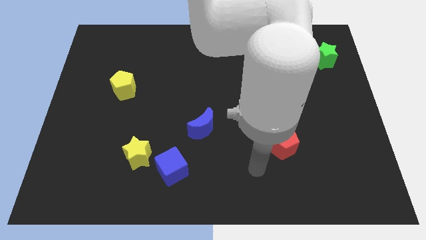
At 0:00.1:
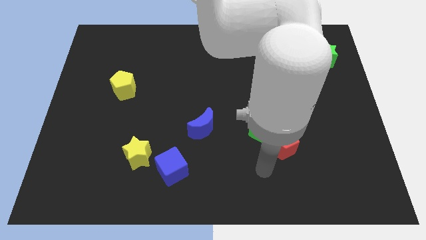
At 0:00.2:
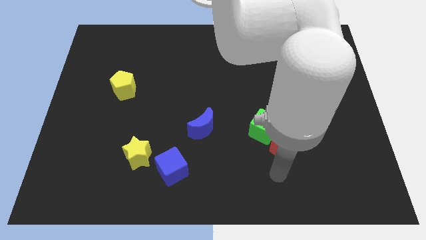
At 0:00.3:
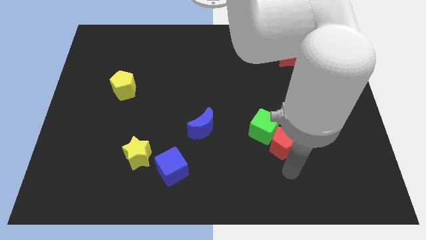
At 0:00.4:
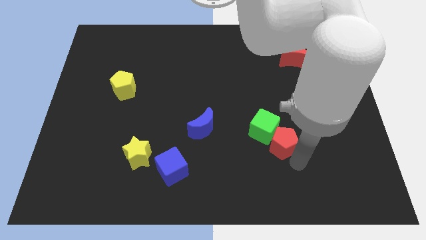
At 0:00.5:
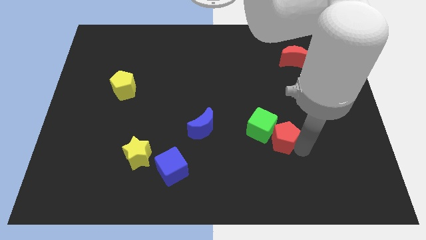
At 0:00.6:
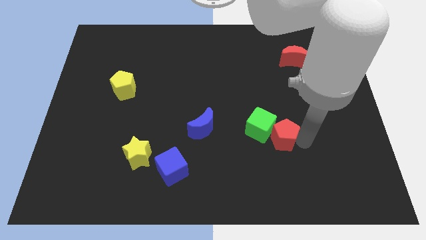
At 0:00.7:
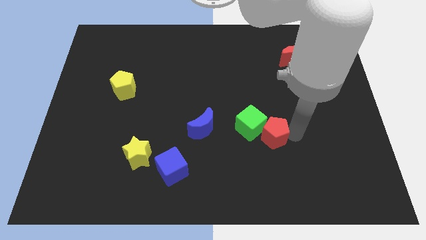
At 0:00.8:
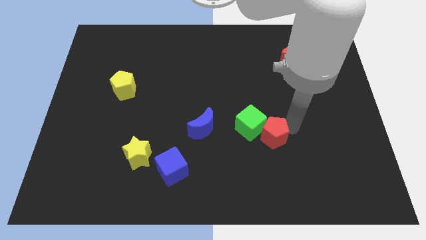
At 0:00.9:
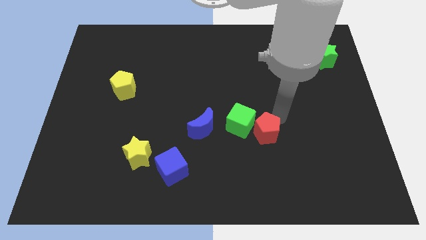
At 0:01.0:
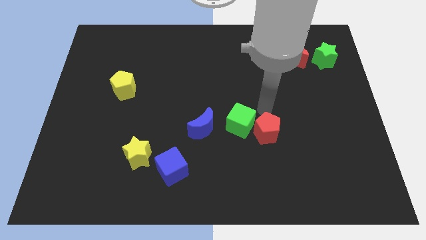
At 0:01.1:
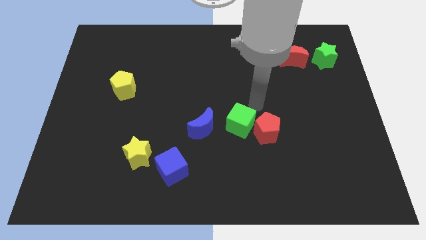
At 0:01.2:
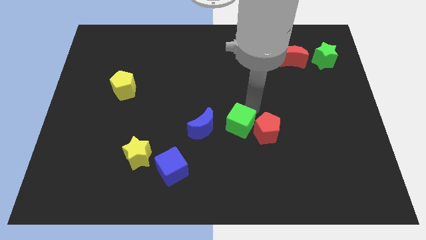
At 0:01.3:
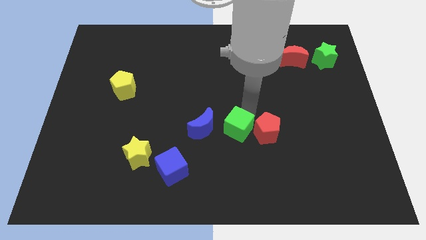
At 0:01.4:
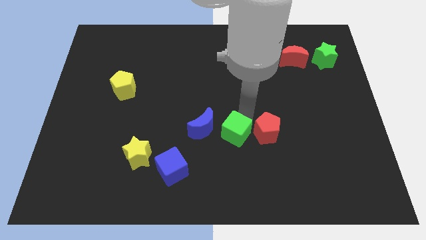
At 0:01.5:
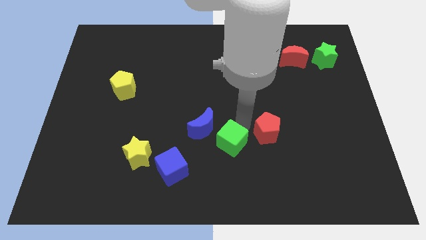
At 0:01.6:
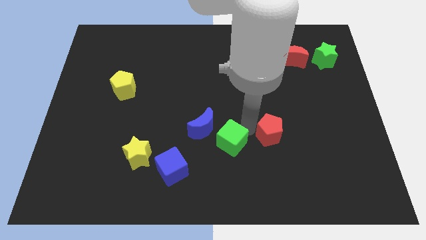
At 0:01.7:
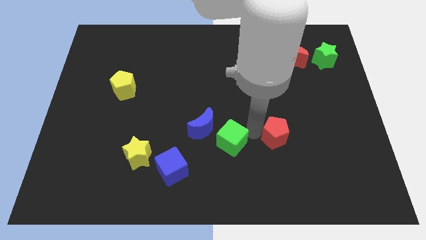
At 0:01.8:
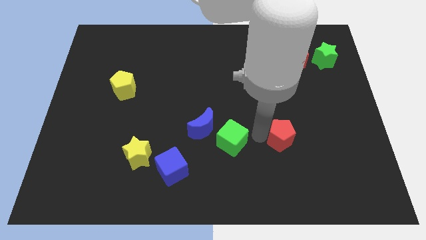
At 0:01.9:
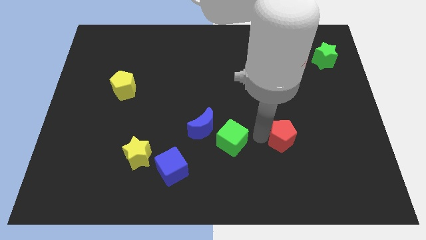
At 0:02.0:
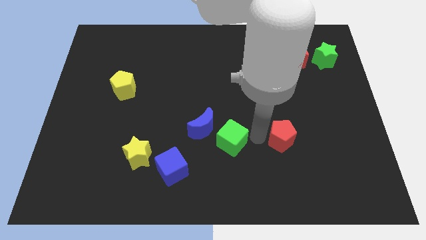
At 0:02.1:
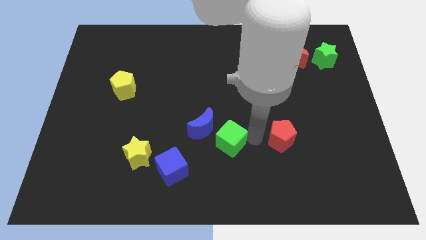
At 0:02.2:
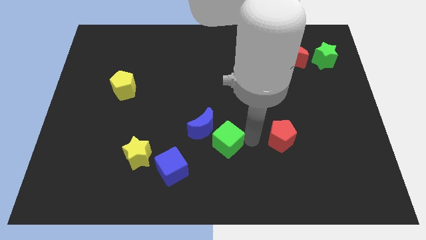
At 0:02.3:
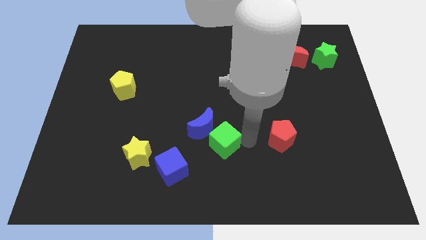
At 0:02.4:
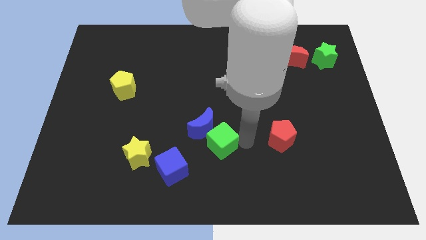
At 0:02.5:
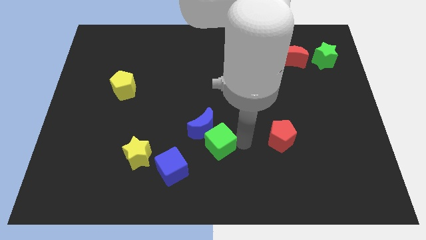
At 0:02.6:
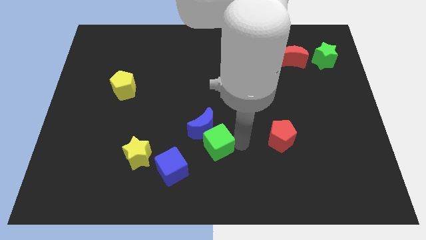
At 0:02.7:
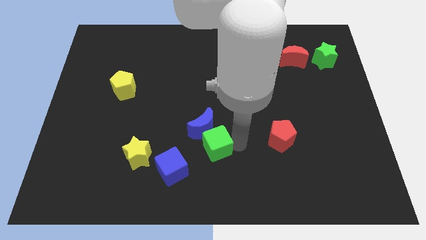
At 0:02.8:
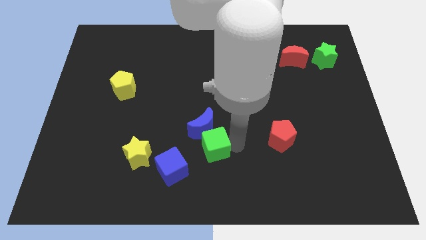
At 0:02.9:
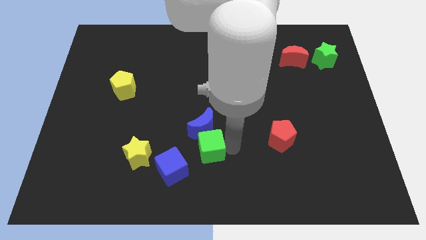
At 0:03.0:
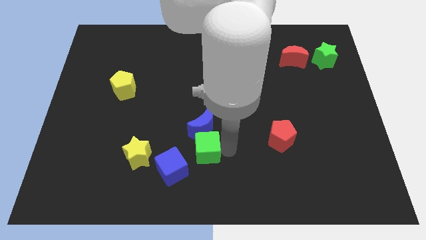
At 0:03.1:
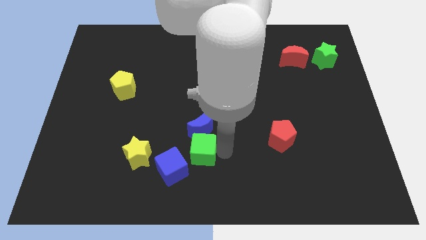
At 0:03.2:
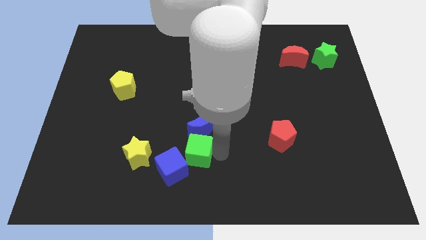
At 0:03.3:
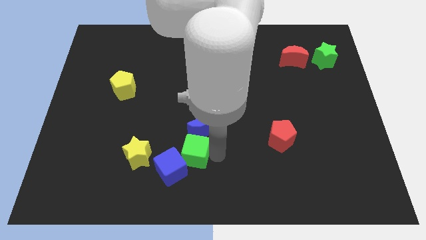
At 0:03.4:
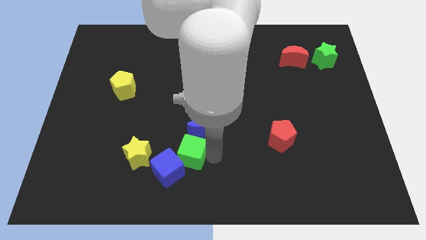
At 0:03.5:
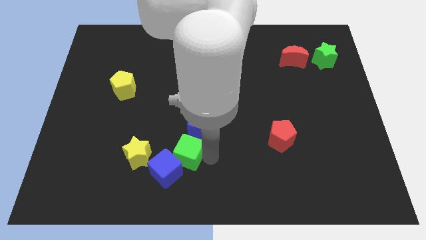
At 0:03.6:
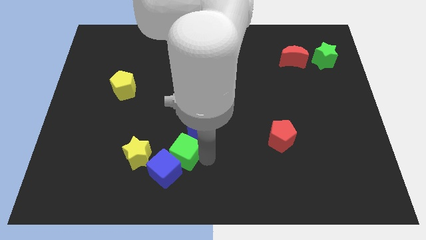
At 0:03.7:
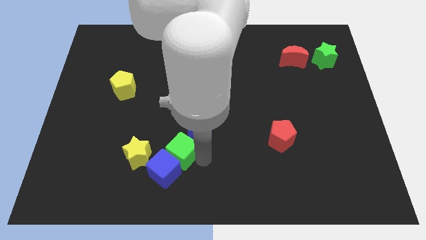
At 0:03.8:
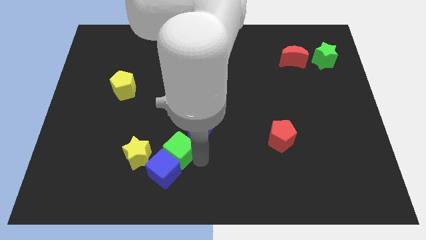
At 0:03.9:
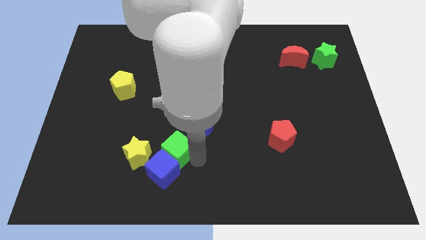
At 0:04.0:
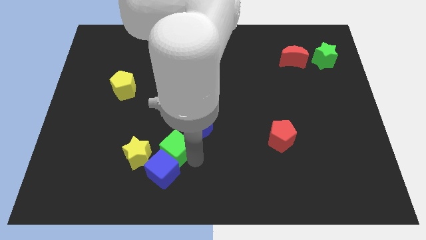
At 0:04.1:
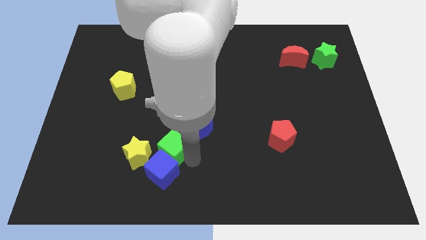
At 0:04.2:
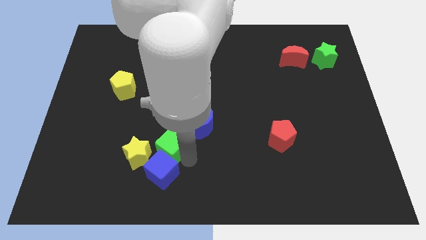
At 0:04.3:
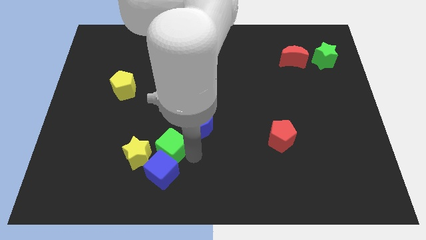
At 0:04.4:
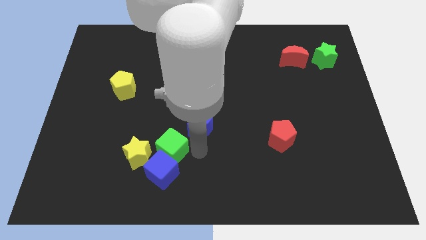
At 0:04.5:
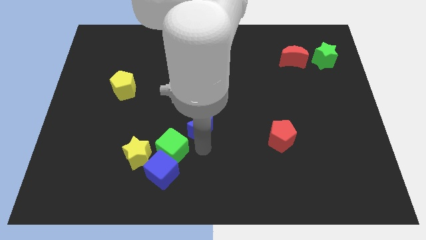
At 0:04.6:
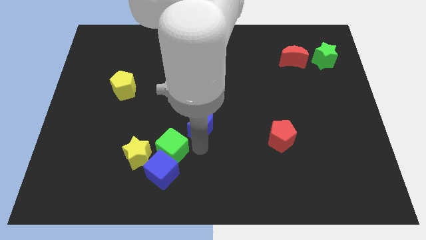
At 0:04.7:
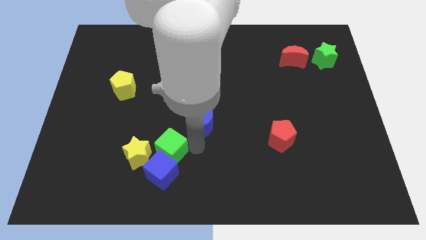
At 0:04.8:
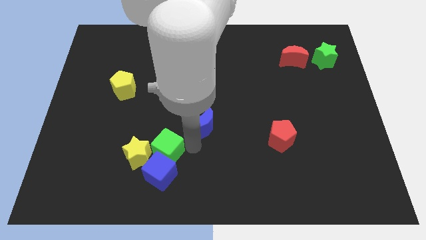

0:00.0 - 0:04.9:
slide the green cube to the top left of the blue cube

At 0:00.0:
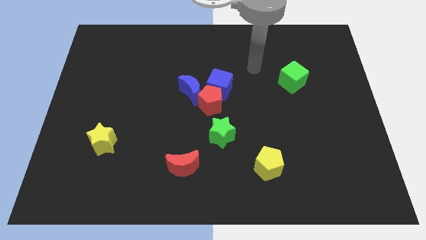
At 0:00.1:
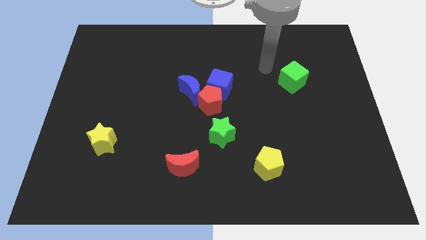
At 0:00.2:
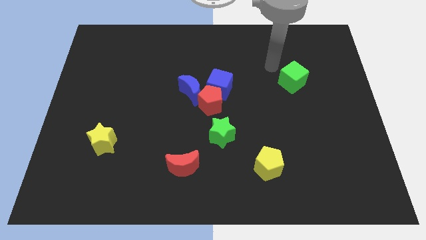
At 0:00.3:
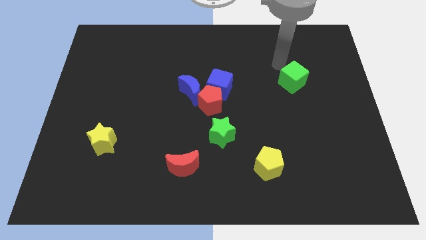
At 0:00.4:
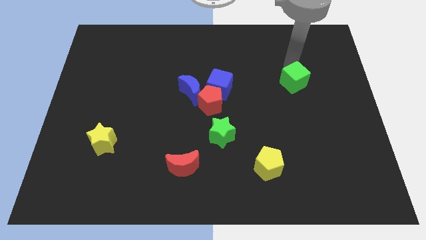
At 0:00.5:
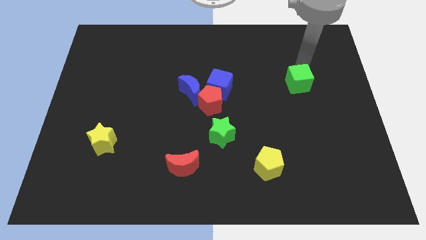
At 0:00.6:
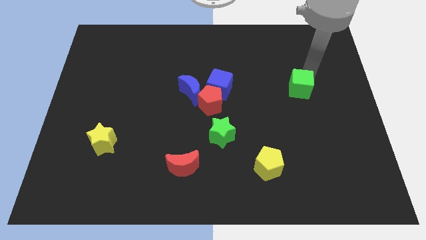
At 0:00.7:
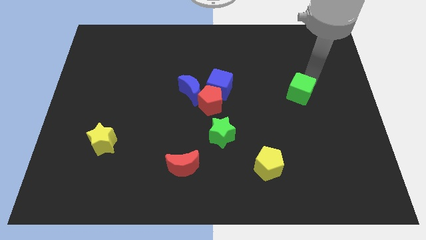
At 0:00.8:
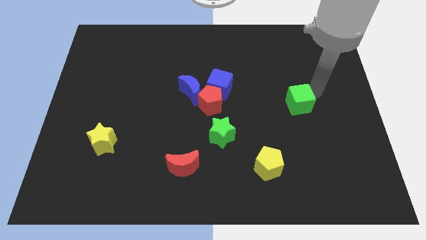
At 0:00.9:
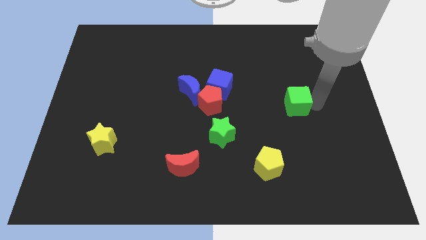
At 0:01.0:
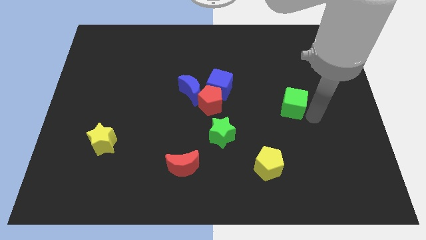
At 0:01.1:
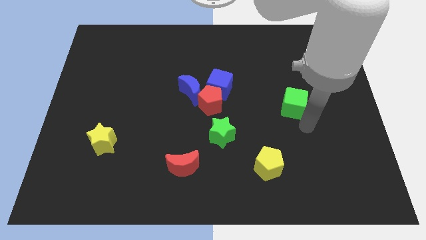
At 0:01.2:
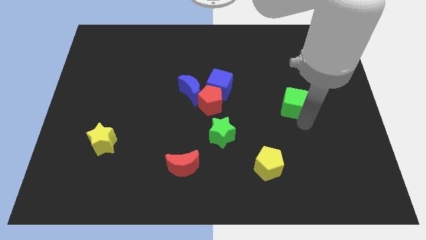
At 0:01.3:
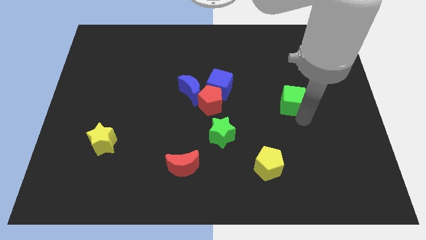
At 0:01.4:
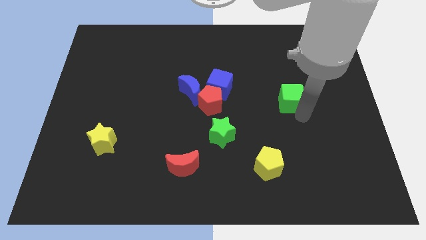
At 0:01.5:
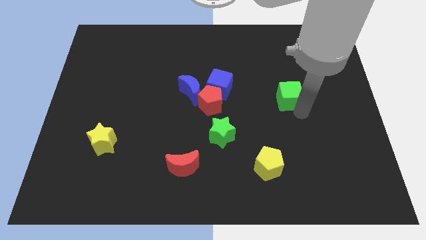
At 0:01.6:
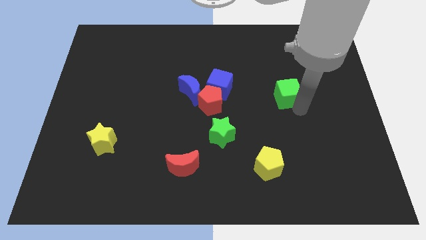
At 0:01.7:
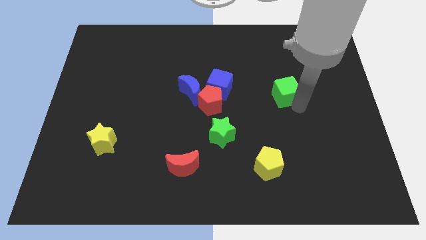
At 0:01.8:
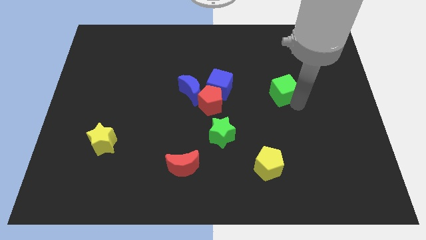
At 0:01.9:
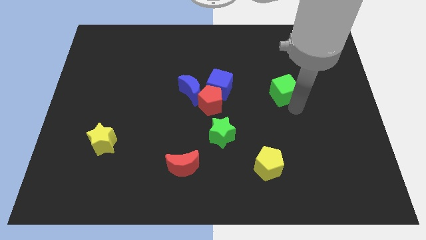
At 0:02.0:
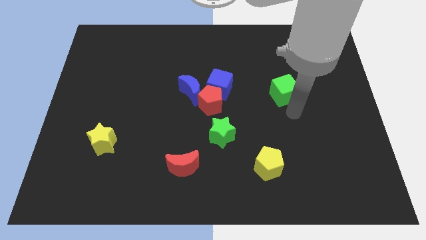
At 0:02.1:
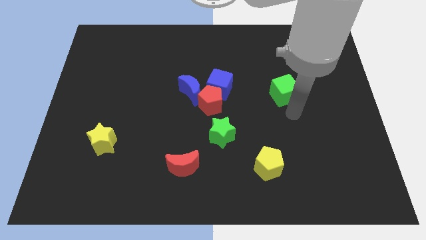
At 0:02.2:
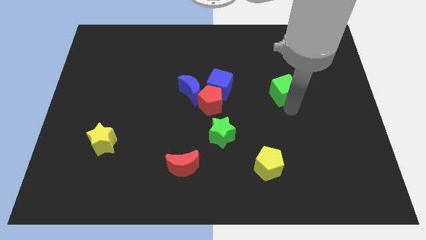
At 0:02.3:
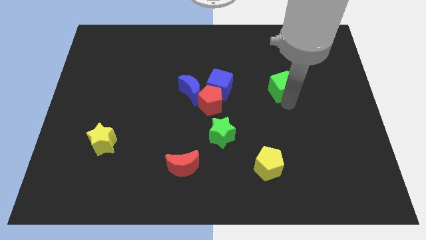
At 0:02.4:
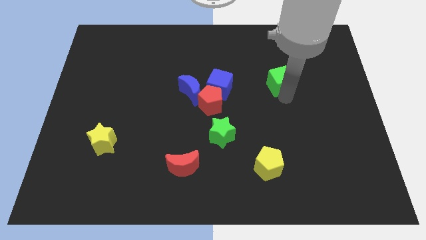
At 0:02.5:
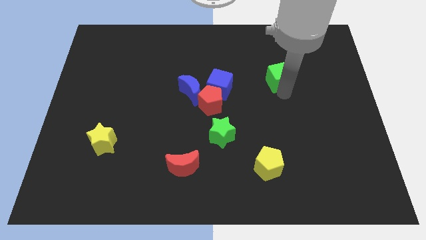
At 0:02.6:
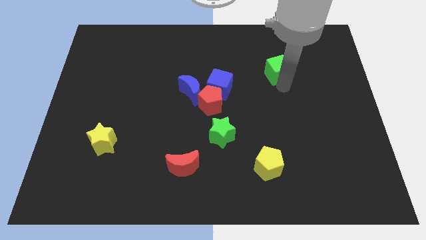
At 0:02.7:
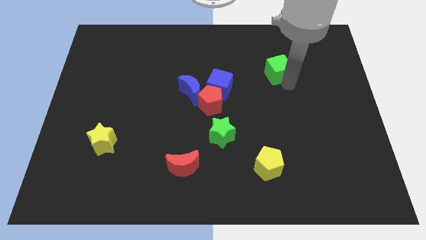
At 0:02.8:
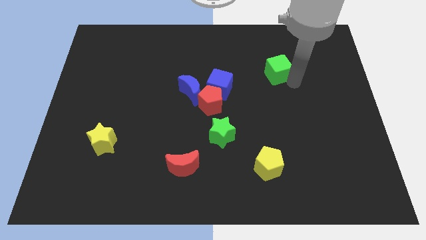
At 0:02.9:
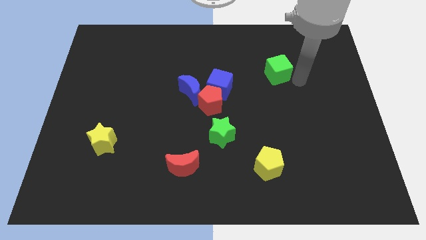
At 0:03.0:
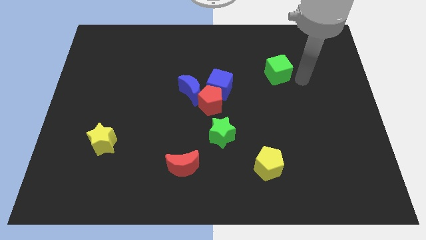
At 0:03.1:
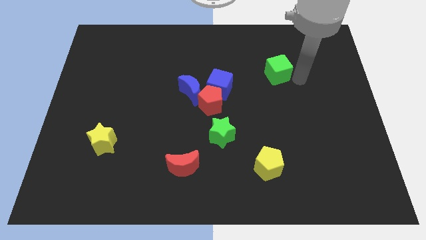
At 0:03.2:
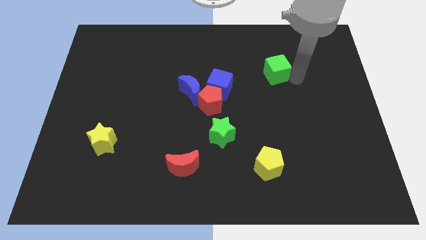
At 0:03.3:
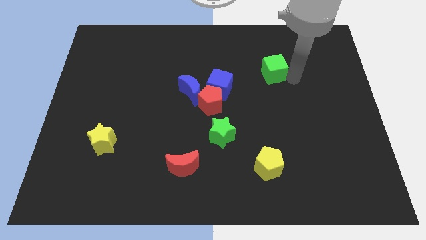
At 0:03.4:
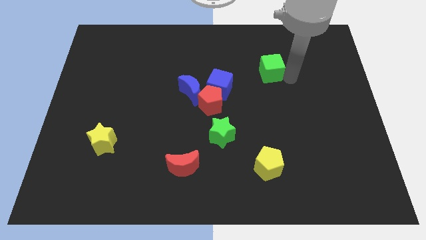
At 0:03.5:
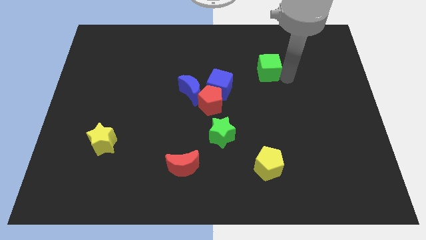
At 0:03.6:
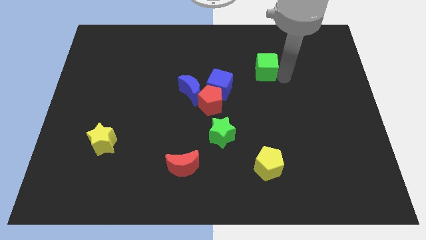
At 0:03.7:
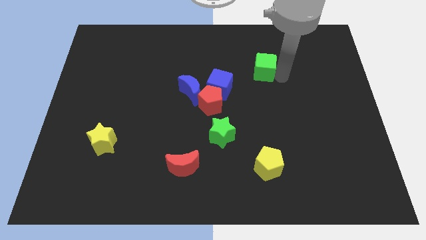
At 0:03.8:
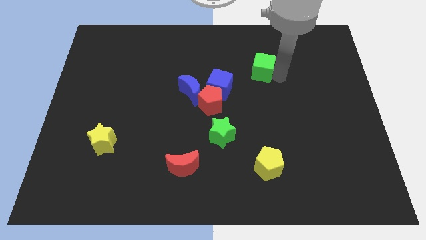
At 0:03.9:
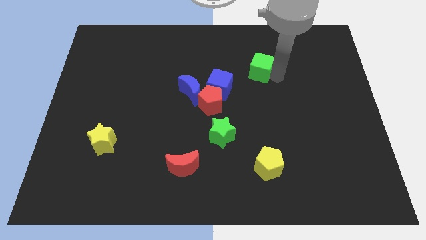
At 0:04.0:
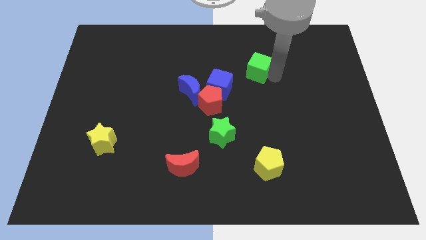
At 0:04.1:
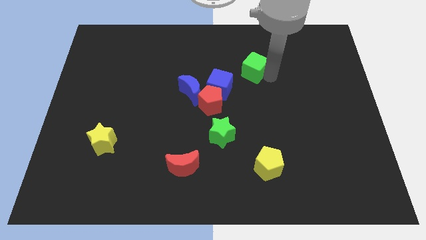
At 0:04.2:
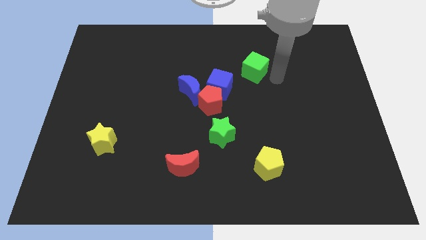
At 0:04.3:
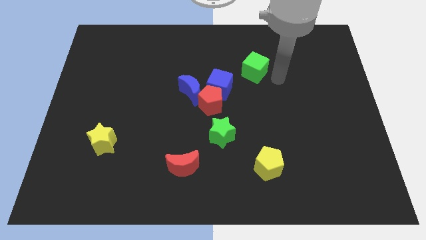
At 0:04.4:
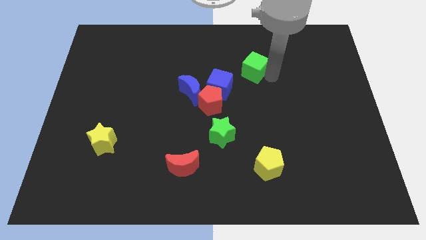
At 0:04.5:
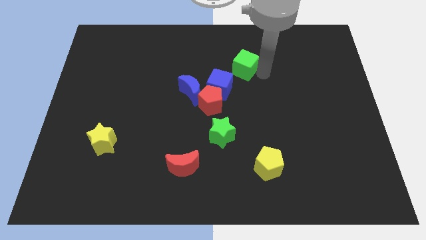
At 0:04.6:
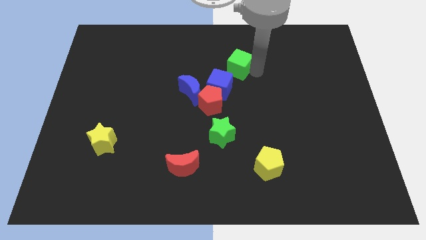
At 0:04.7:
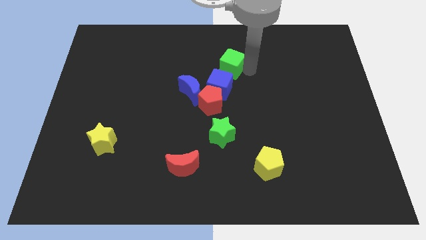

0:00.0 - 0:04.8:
slide the green cube to the top of the blue cube
